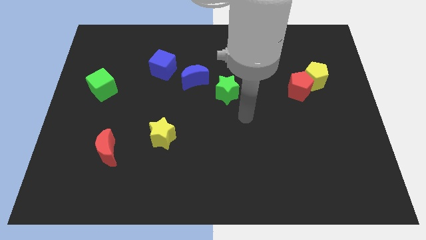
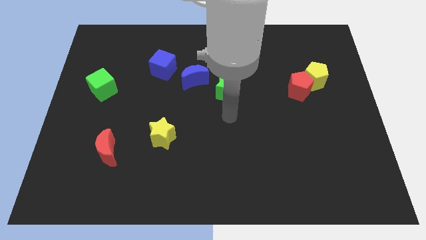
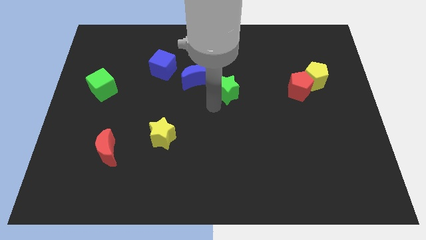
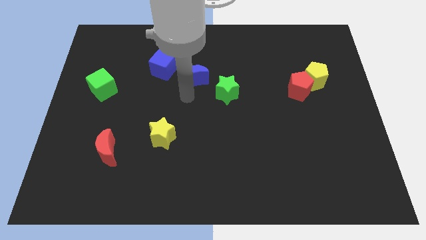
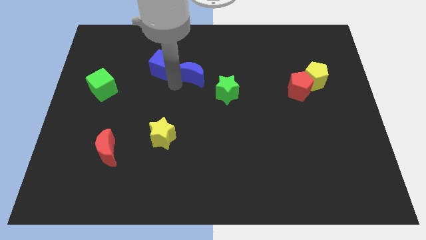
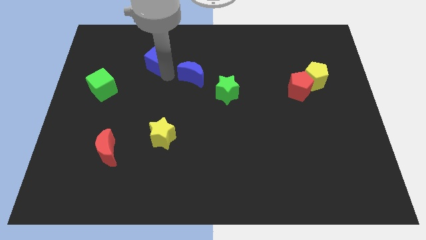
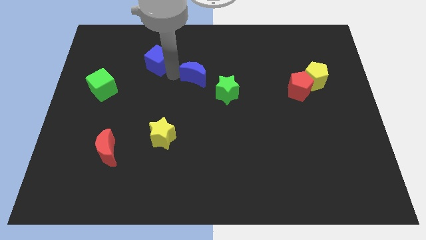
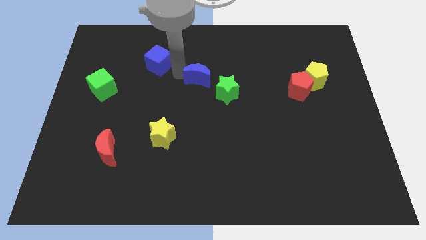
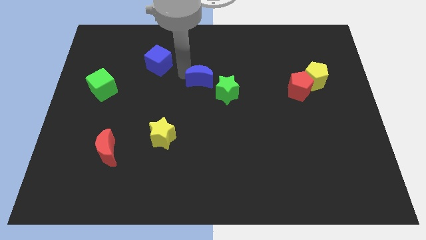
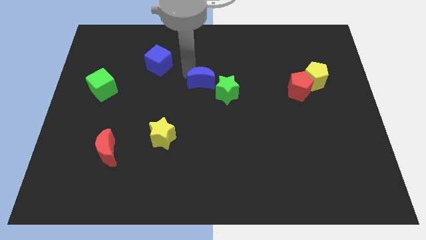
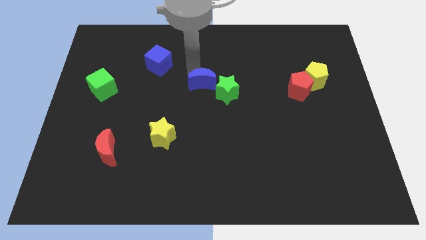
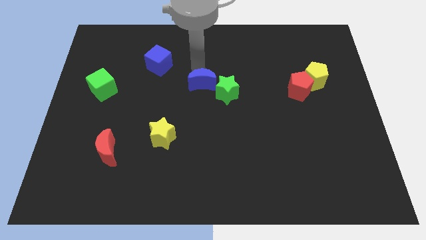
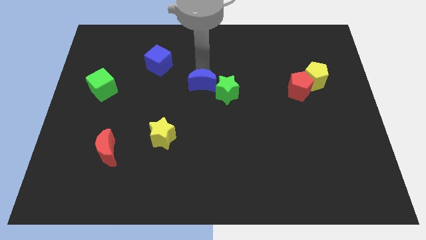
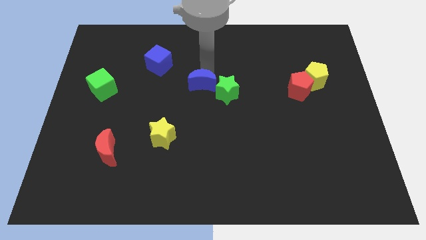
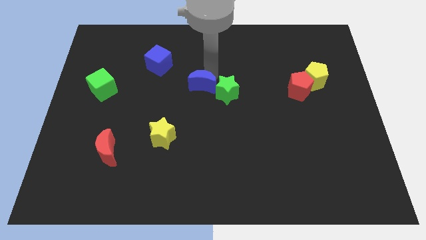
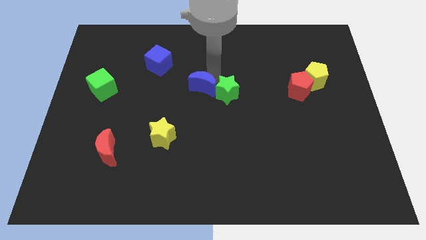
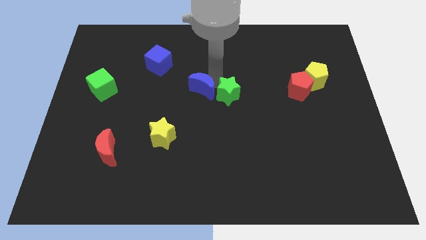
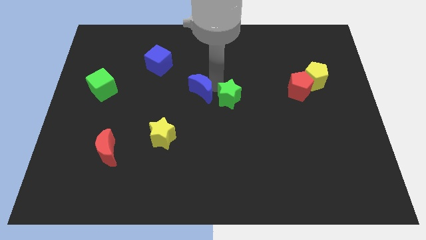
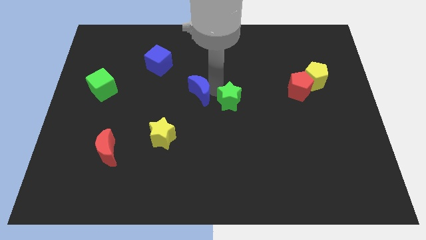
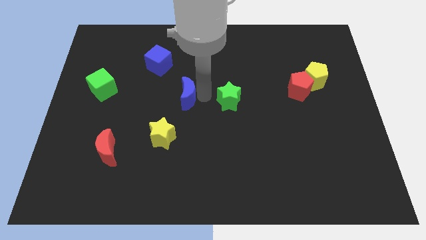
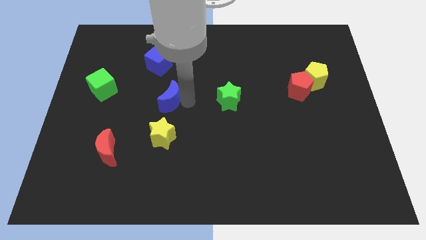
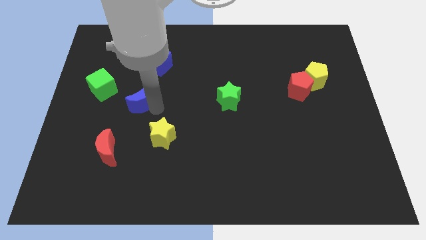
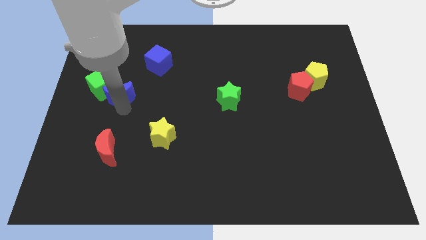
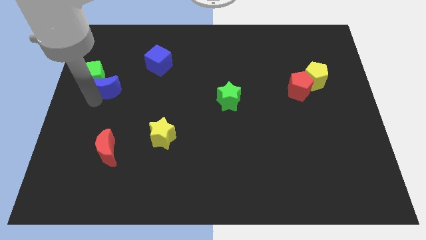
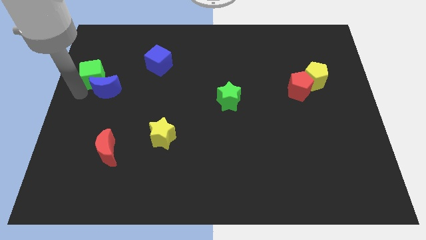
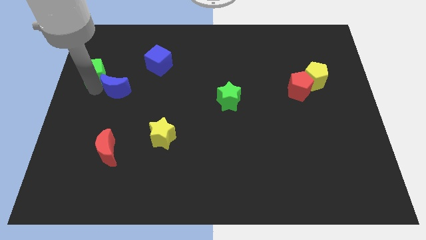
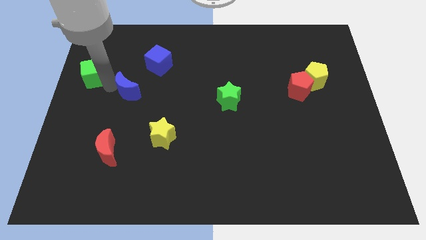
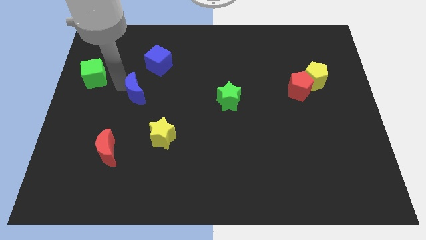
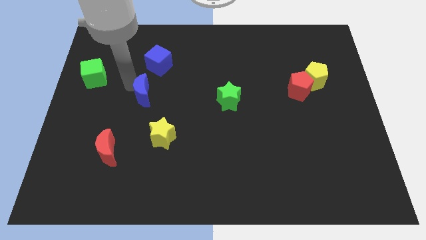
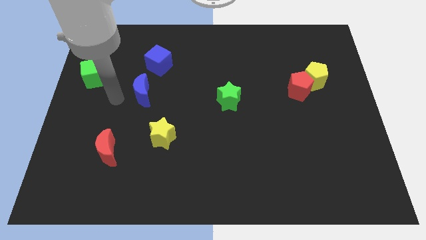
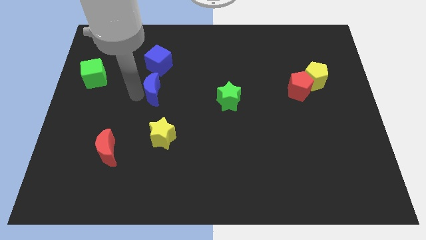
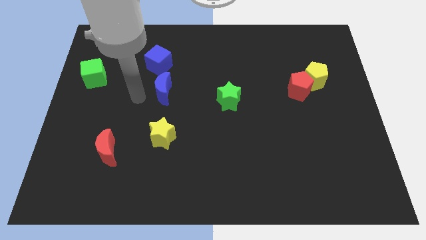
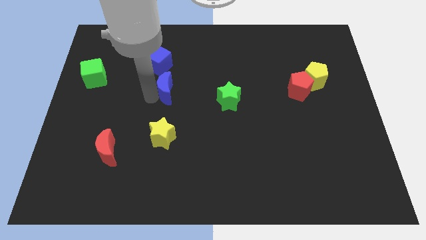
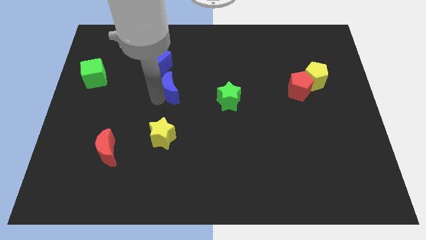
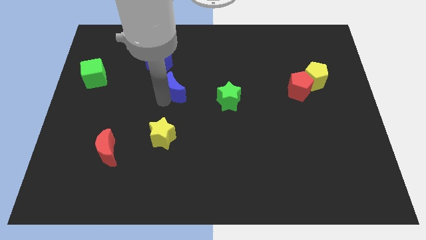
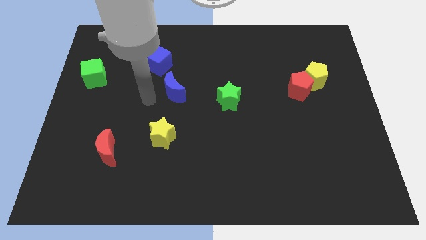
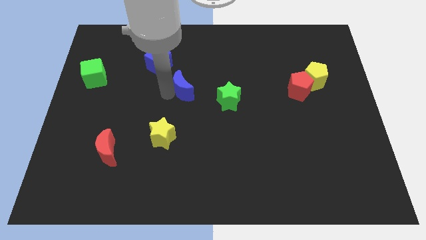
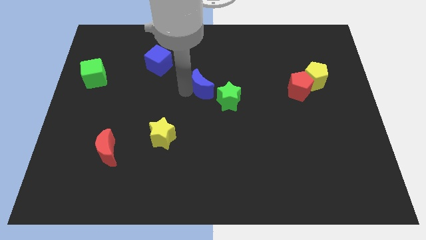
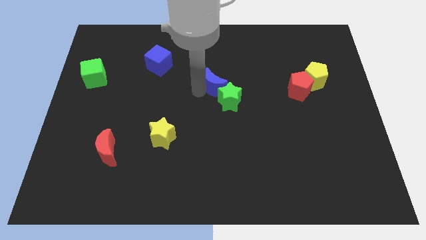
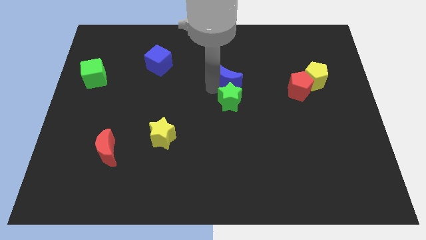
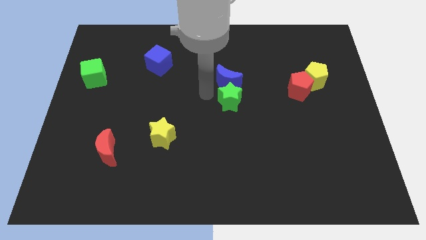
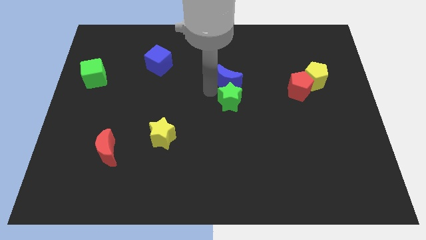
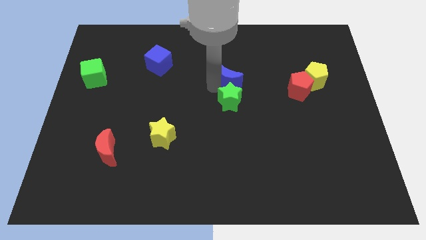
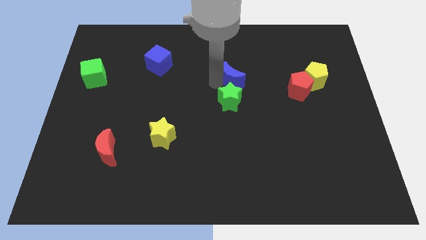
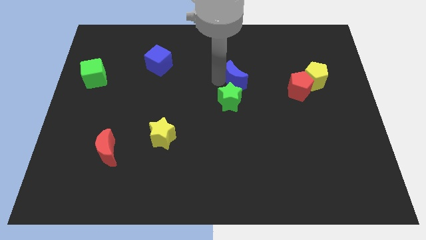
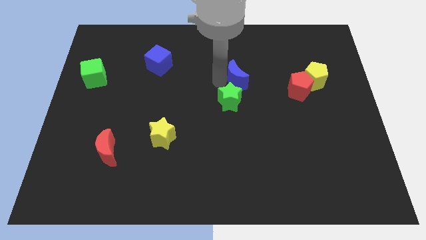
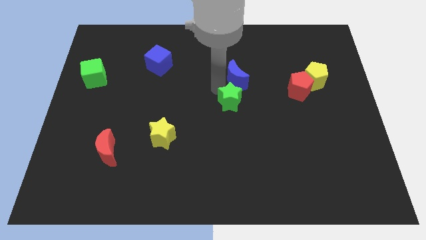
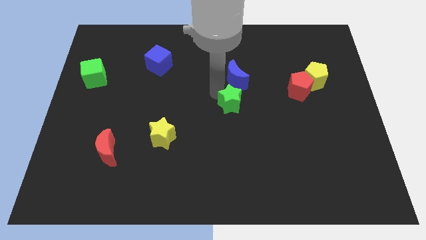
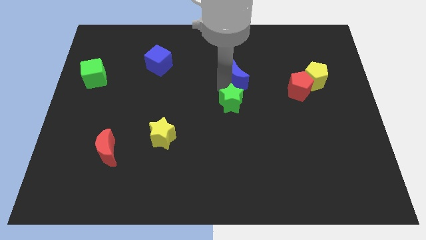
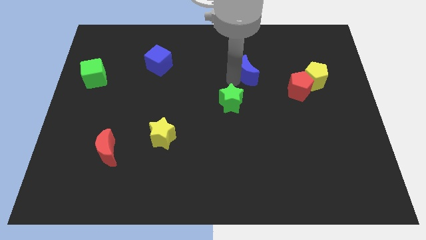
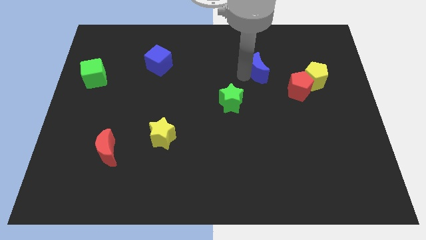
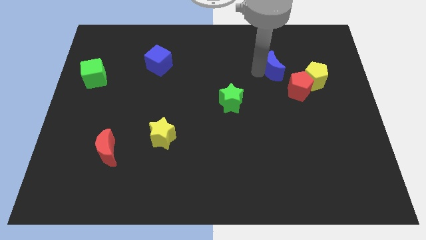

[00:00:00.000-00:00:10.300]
push the blue moon to the top left side of the yellow pentagon

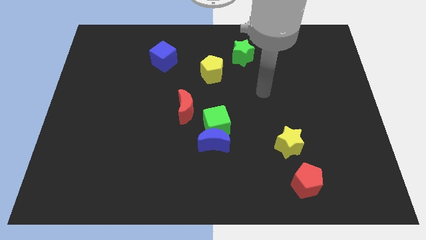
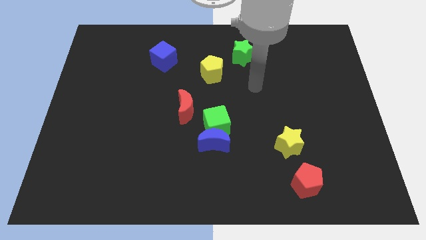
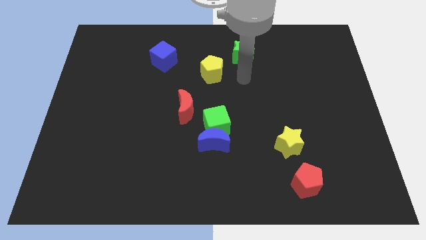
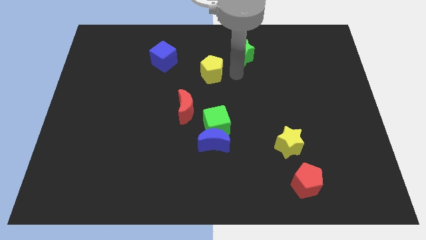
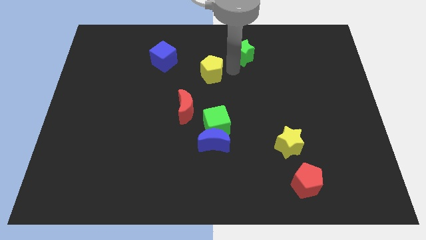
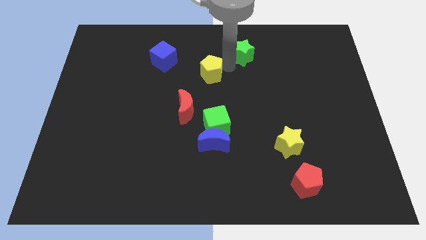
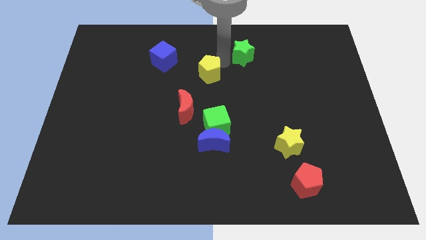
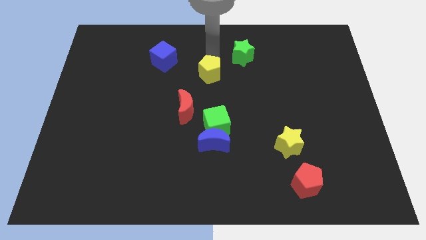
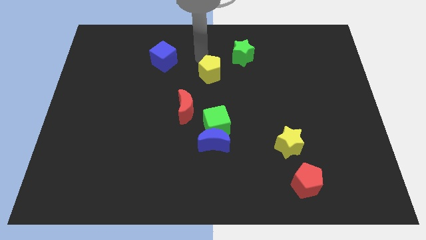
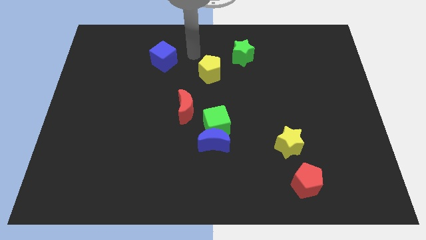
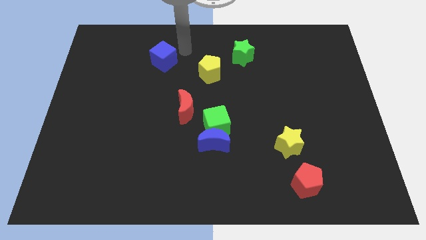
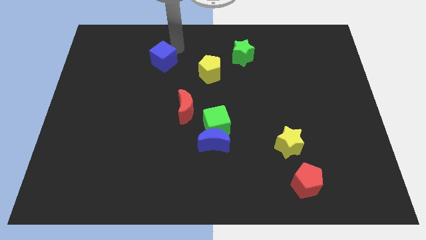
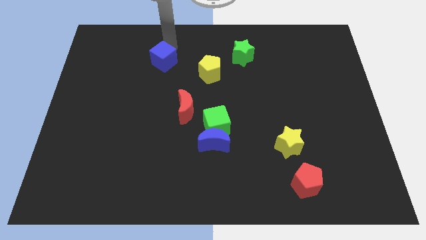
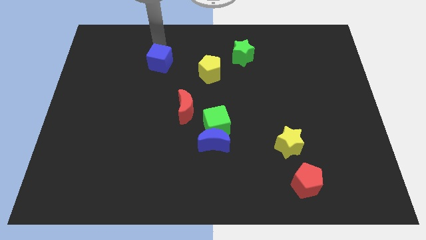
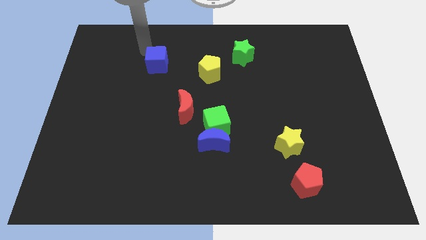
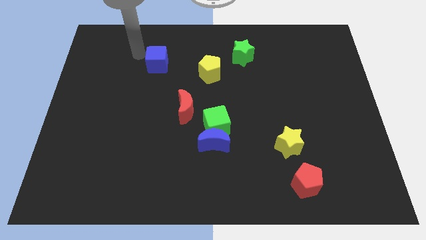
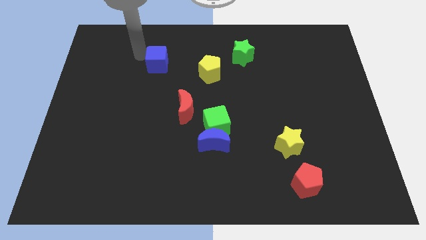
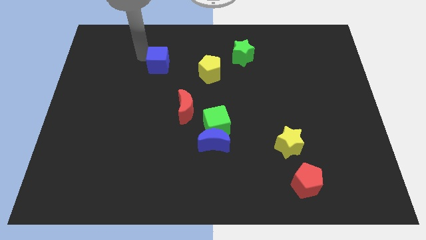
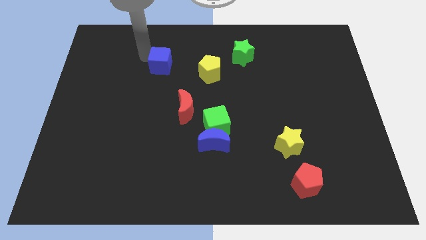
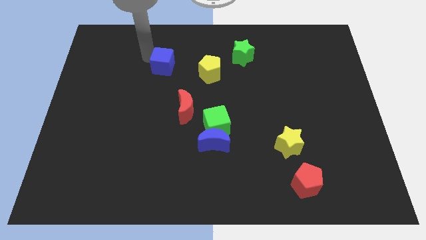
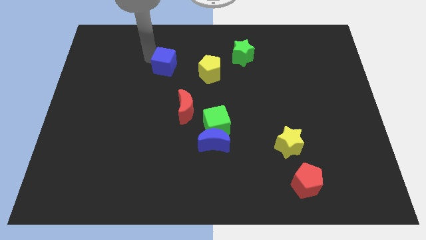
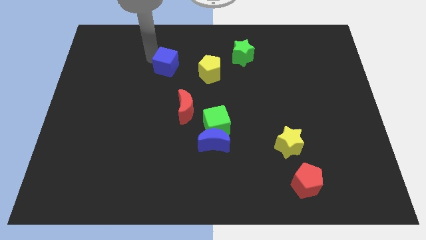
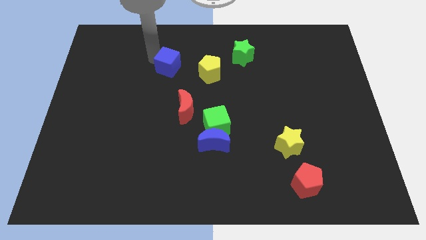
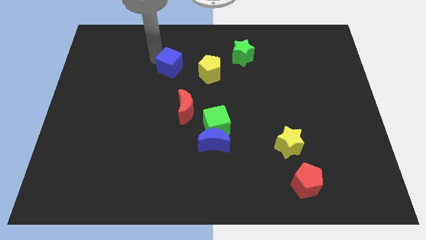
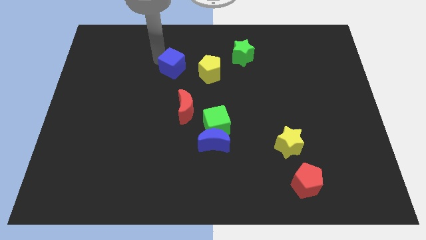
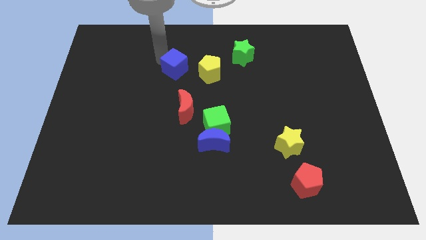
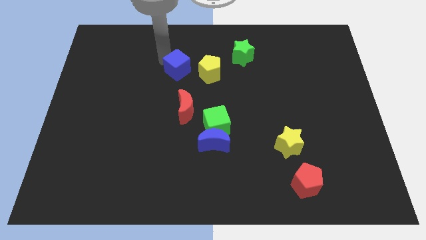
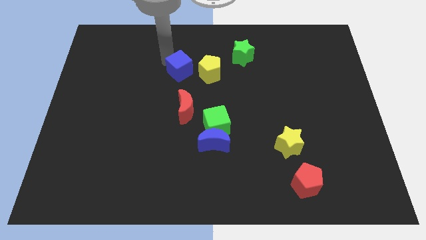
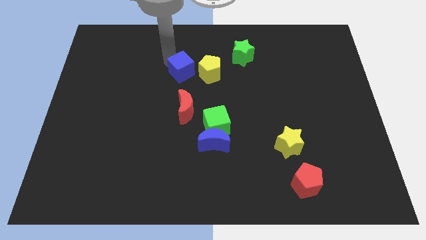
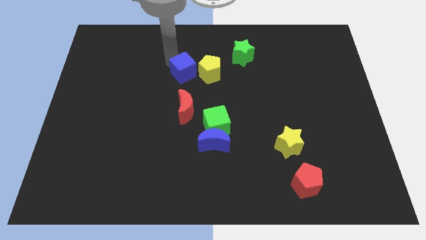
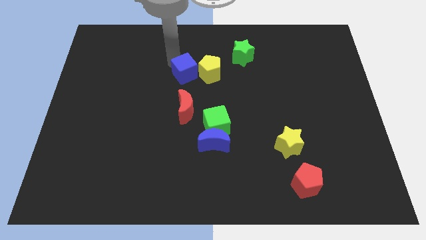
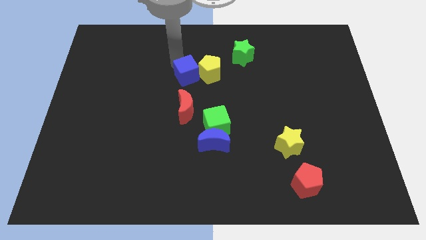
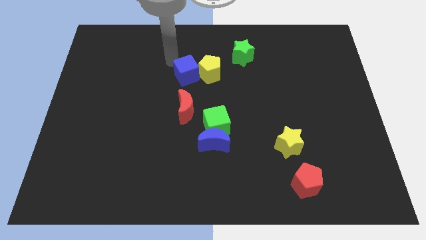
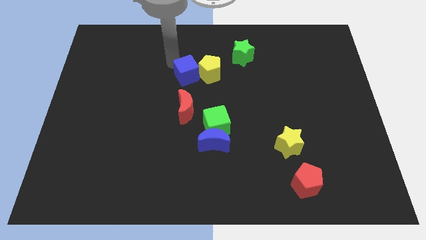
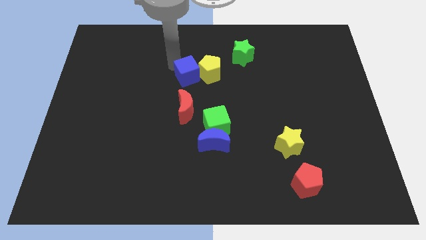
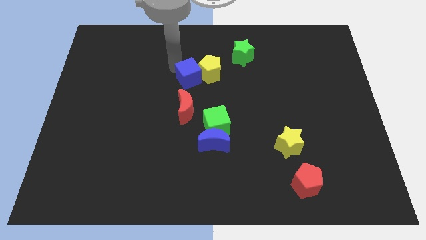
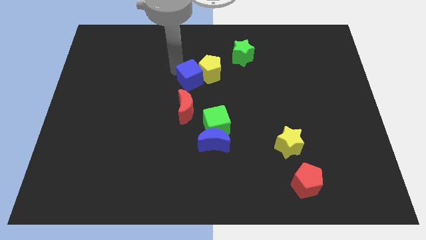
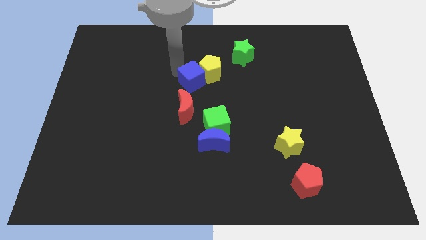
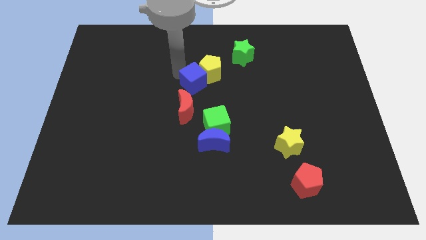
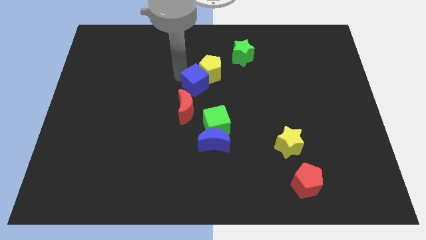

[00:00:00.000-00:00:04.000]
put the blue cube diagonally up and to the right of the red moon
